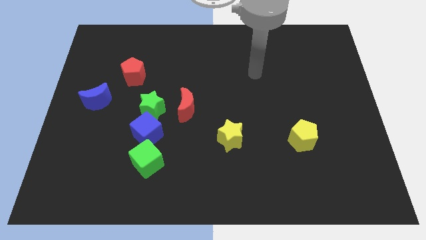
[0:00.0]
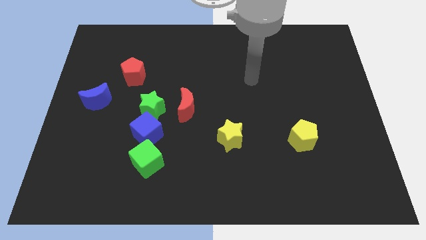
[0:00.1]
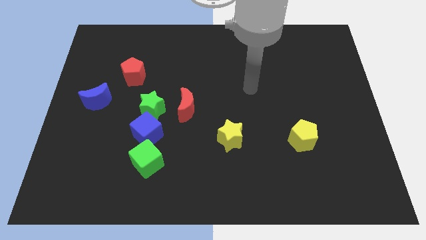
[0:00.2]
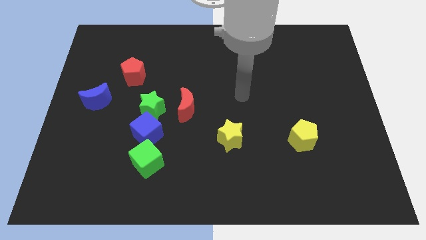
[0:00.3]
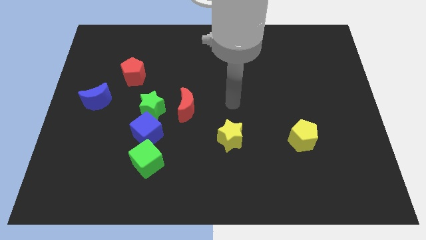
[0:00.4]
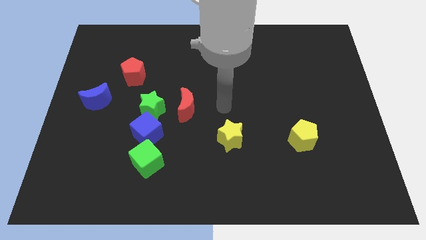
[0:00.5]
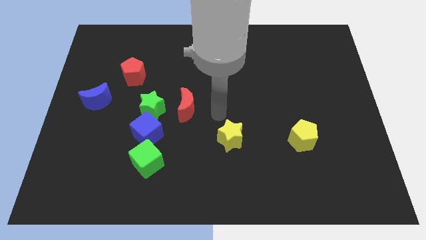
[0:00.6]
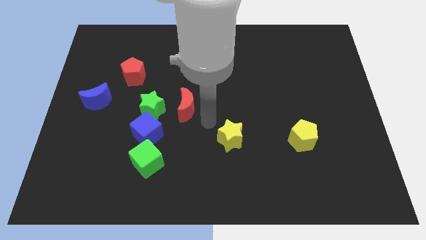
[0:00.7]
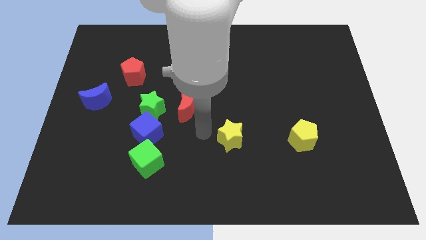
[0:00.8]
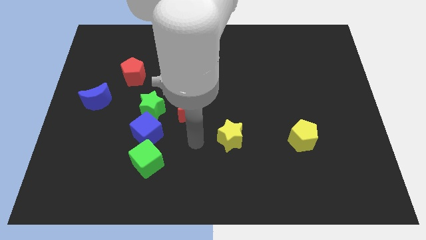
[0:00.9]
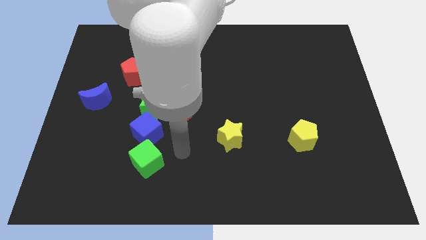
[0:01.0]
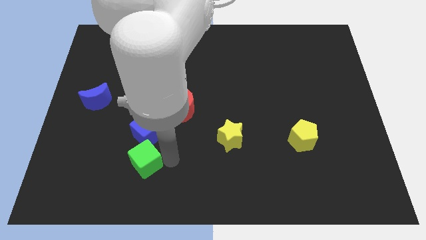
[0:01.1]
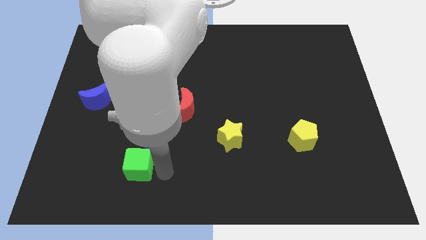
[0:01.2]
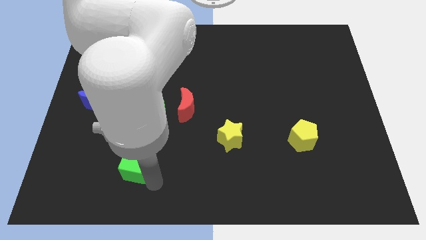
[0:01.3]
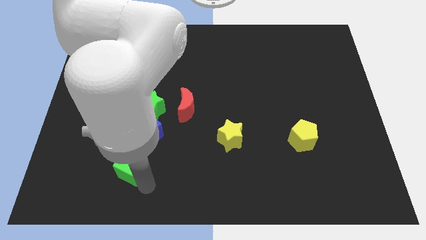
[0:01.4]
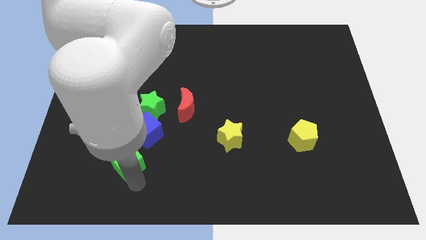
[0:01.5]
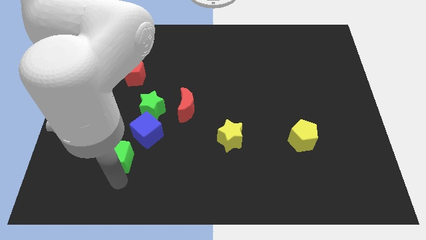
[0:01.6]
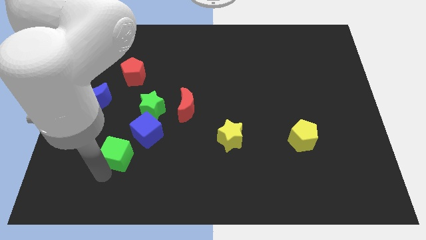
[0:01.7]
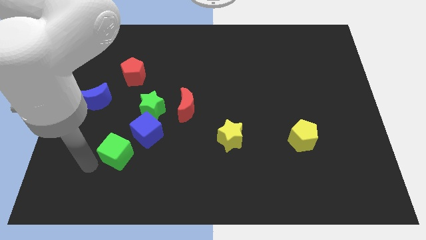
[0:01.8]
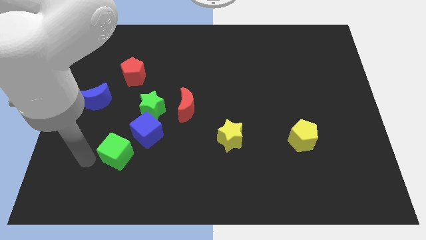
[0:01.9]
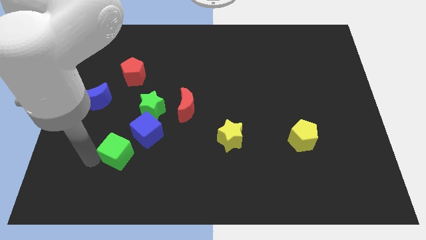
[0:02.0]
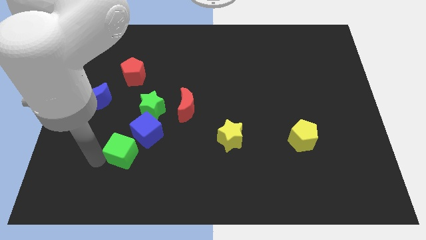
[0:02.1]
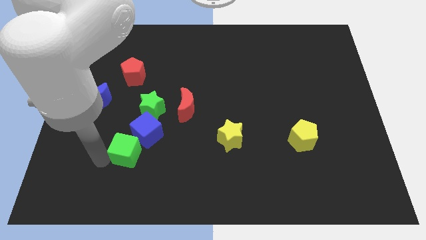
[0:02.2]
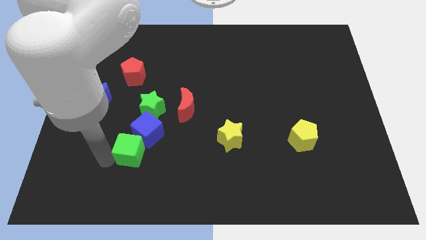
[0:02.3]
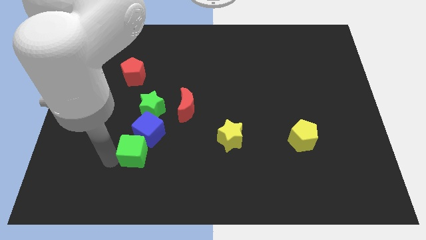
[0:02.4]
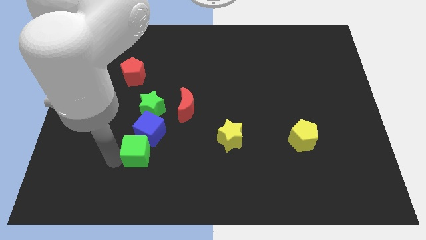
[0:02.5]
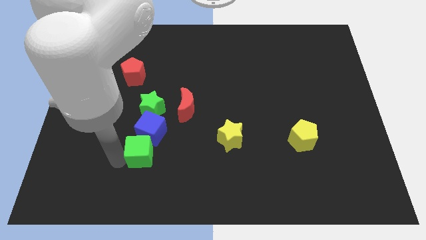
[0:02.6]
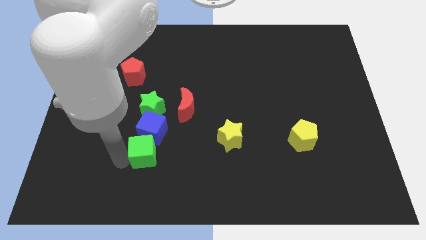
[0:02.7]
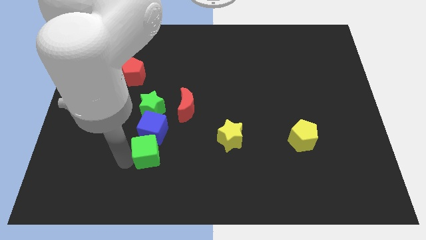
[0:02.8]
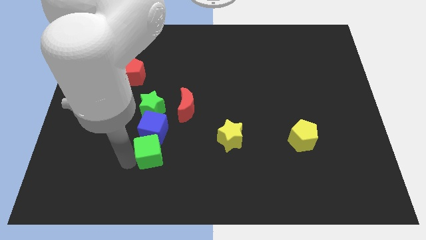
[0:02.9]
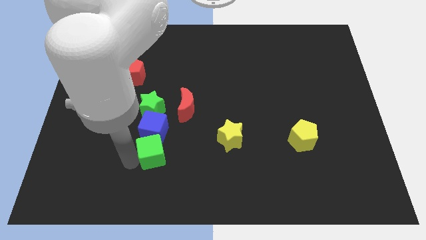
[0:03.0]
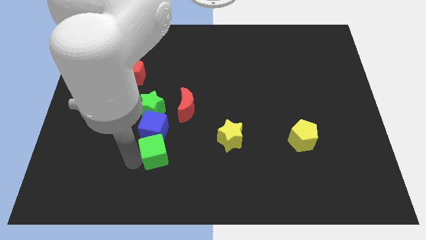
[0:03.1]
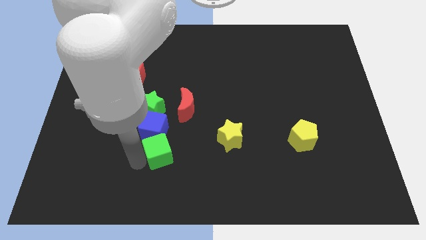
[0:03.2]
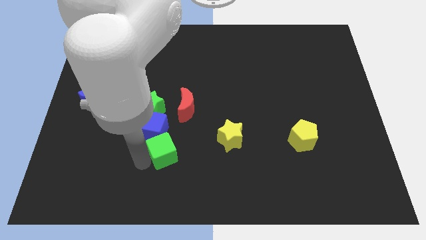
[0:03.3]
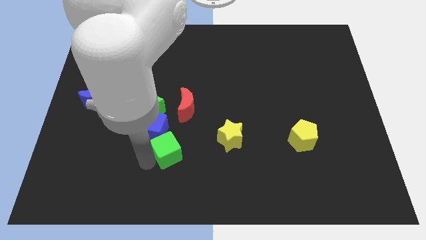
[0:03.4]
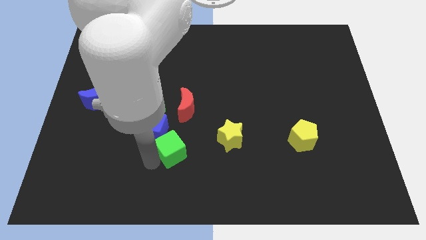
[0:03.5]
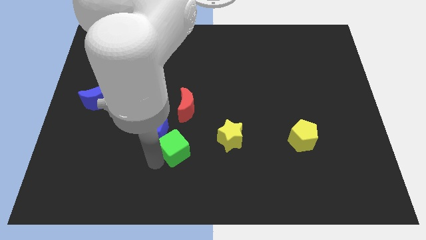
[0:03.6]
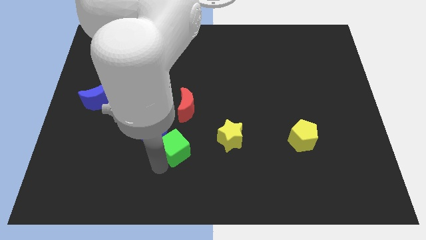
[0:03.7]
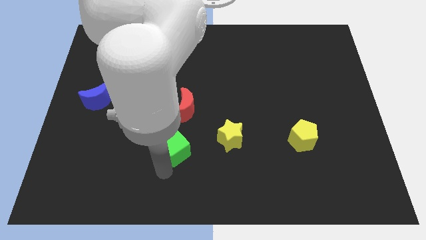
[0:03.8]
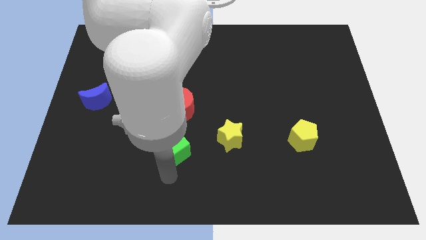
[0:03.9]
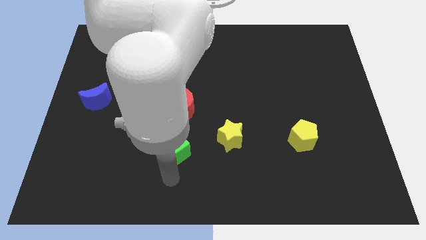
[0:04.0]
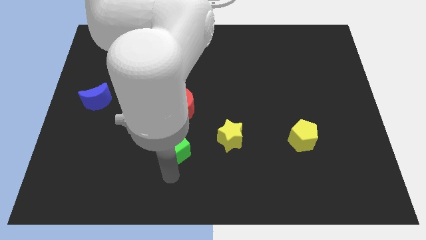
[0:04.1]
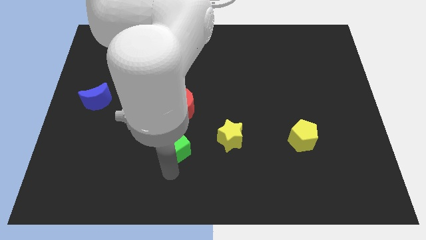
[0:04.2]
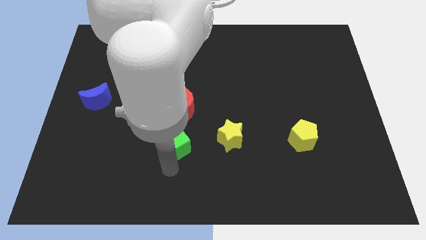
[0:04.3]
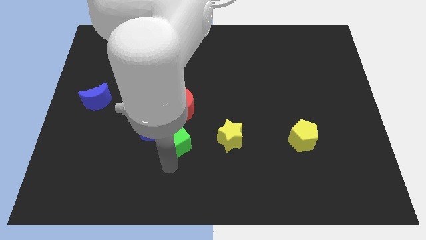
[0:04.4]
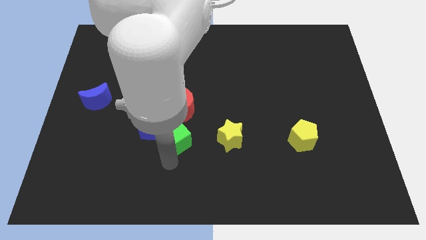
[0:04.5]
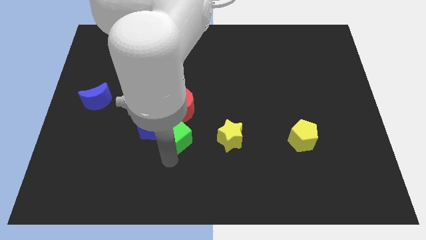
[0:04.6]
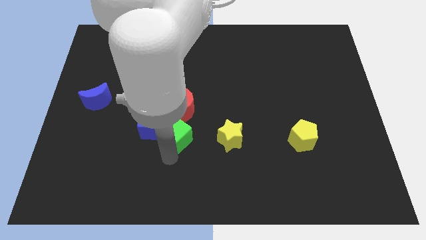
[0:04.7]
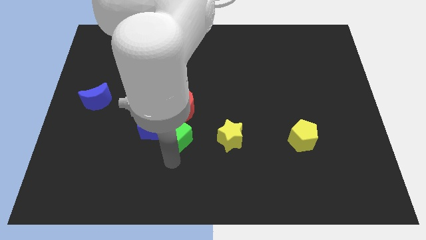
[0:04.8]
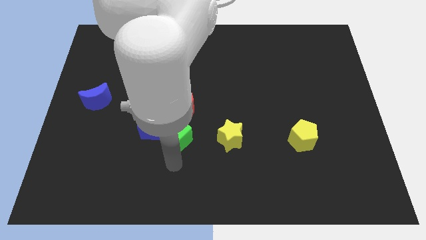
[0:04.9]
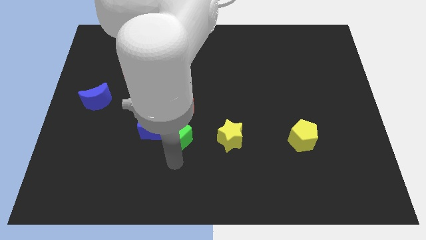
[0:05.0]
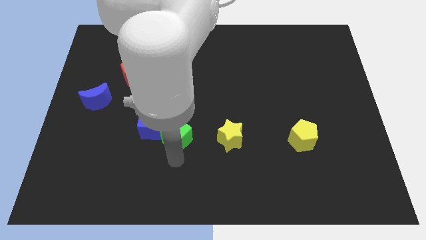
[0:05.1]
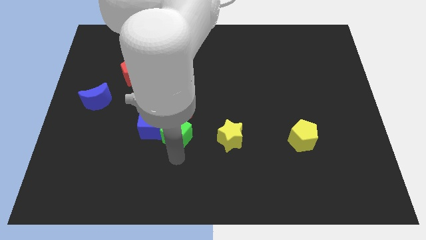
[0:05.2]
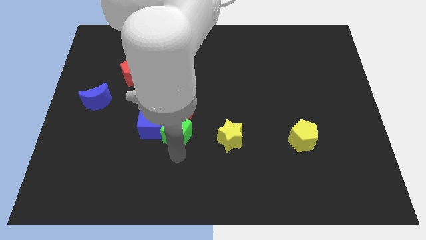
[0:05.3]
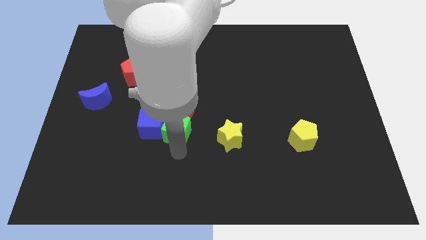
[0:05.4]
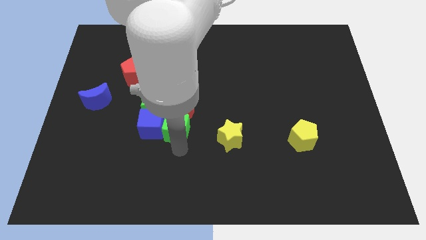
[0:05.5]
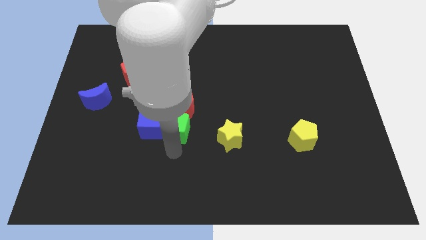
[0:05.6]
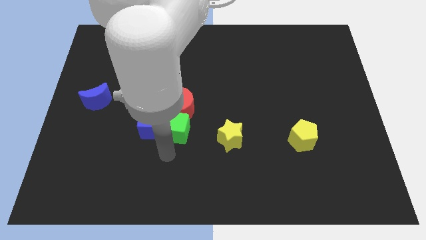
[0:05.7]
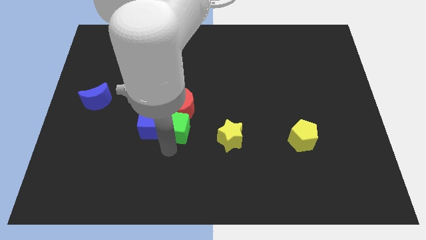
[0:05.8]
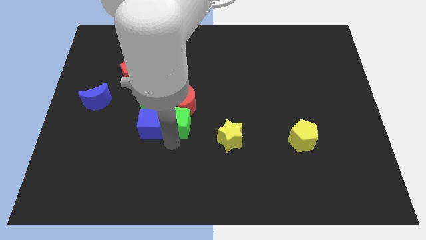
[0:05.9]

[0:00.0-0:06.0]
slide the green cube close to the red moon

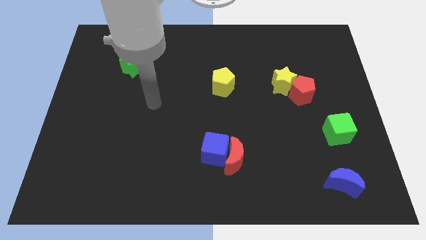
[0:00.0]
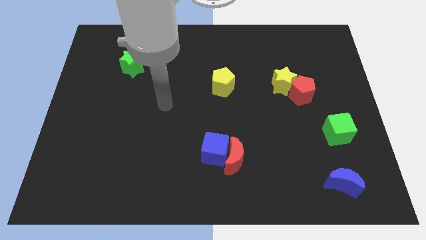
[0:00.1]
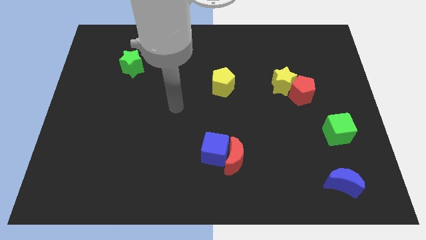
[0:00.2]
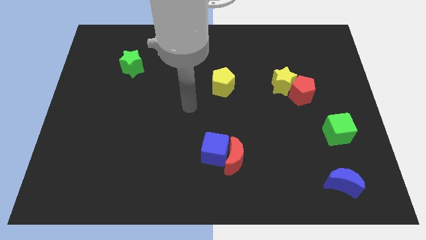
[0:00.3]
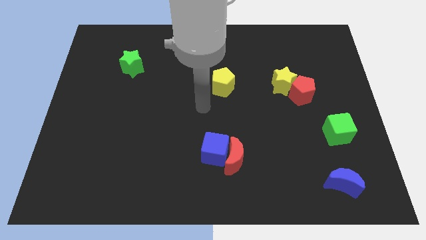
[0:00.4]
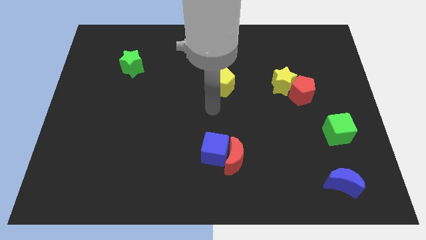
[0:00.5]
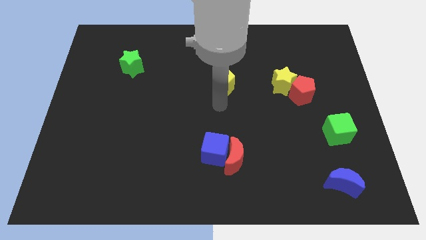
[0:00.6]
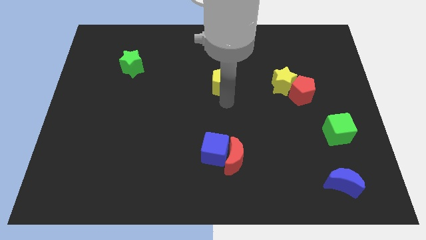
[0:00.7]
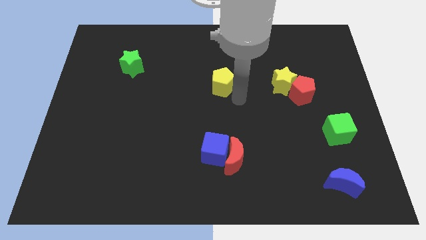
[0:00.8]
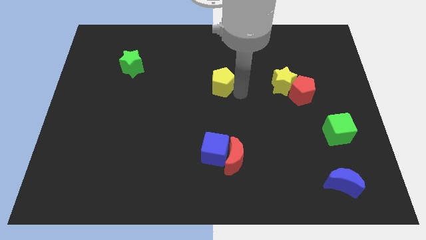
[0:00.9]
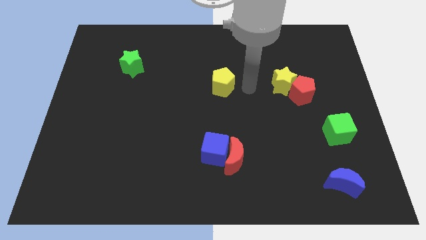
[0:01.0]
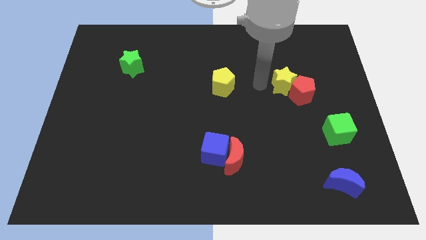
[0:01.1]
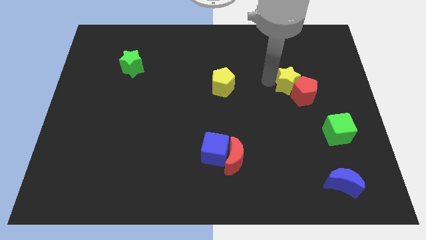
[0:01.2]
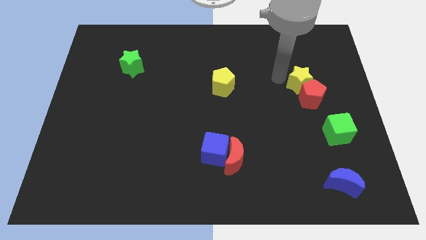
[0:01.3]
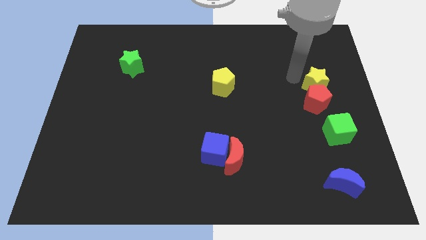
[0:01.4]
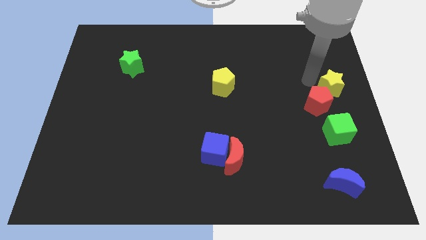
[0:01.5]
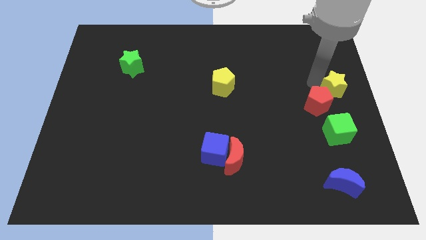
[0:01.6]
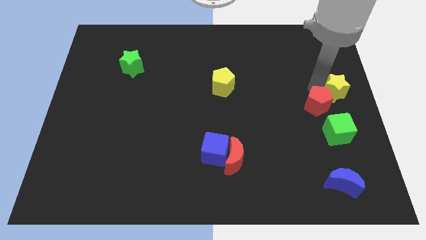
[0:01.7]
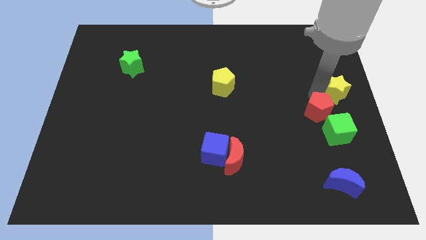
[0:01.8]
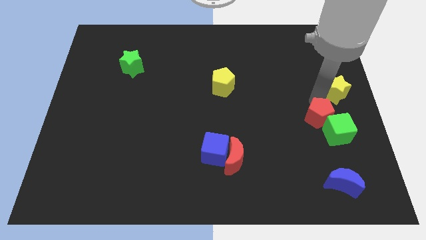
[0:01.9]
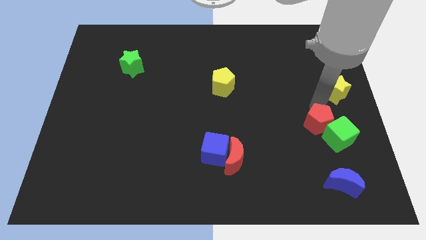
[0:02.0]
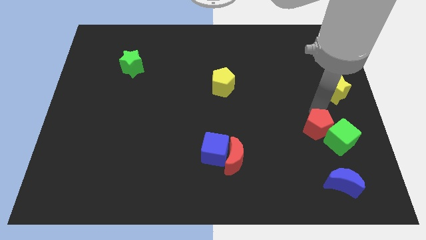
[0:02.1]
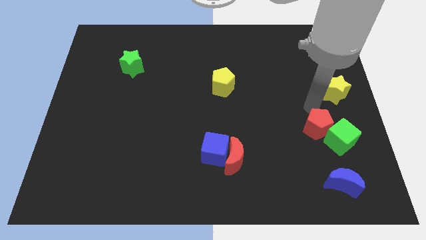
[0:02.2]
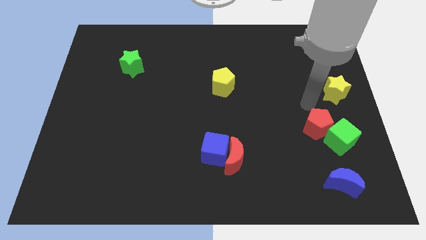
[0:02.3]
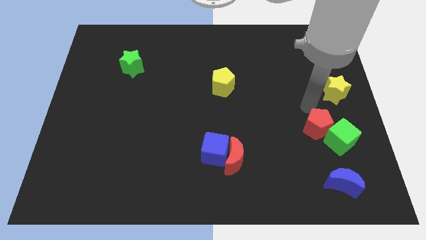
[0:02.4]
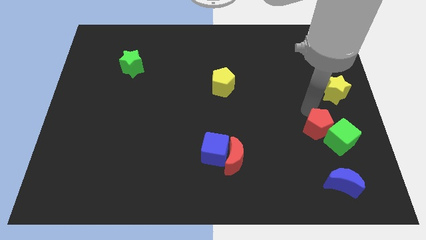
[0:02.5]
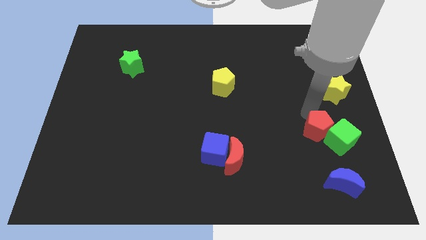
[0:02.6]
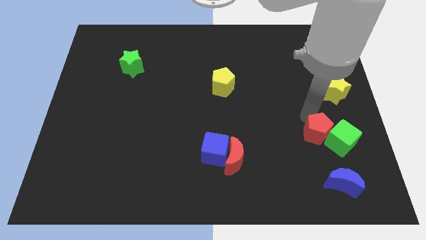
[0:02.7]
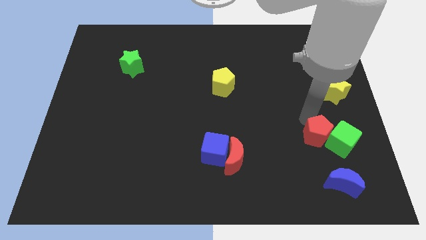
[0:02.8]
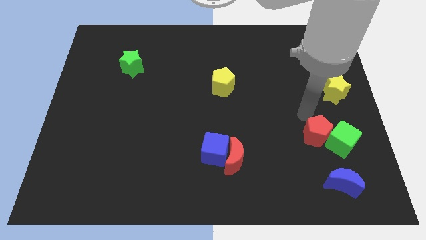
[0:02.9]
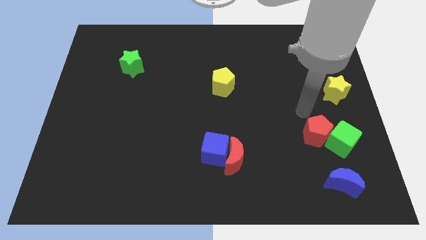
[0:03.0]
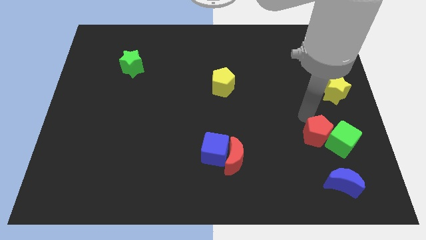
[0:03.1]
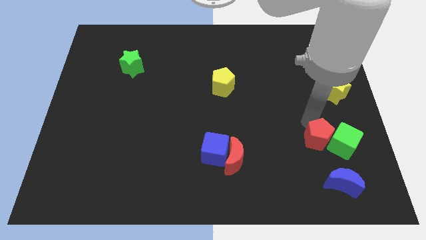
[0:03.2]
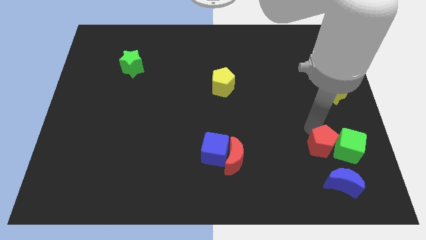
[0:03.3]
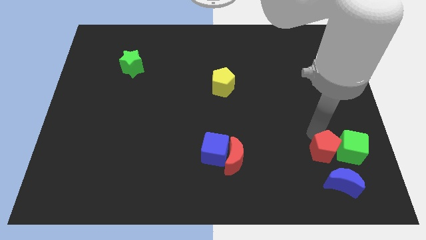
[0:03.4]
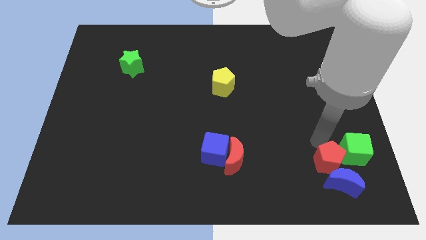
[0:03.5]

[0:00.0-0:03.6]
slide the red pentagon to the blue moon
